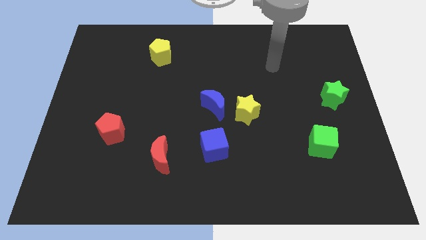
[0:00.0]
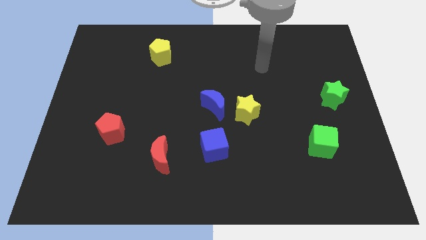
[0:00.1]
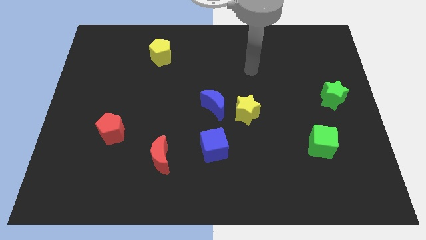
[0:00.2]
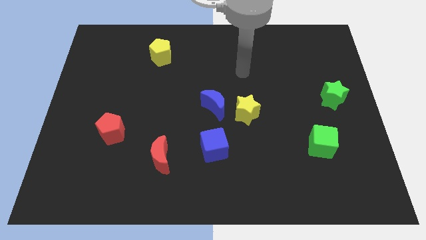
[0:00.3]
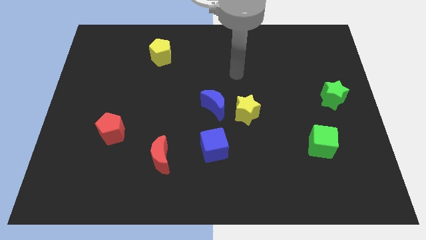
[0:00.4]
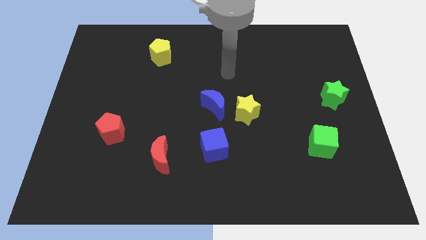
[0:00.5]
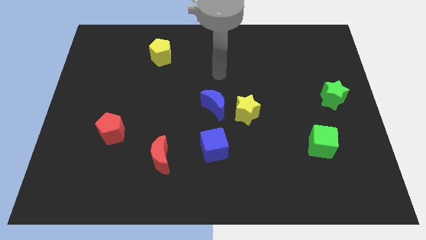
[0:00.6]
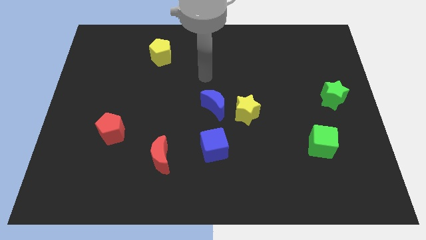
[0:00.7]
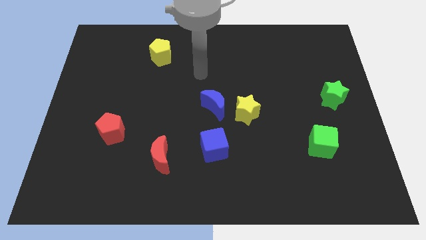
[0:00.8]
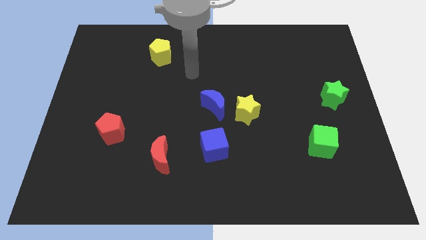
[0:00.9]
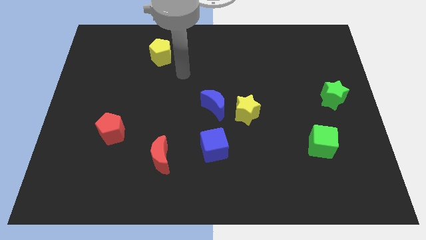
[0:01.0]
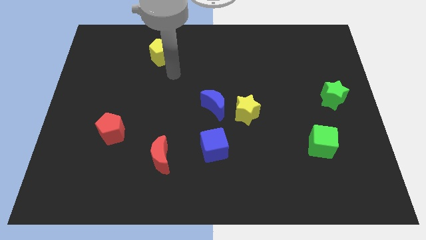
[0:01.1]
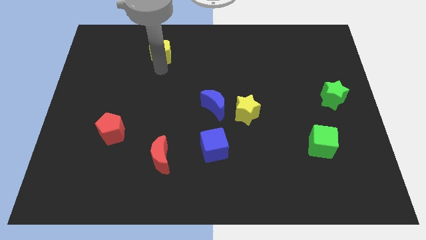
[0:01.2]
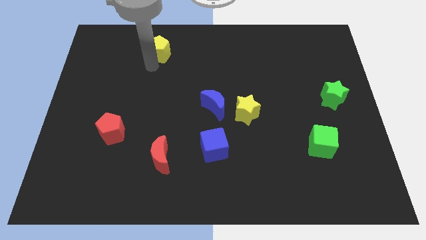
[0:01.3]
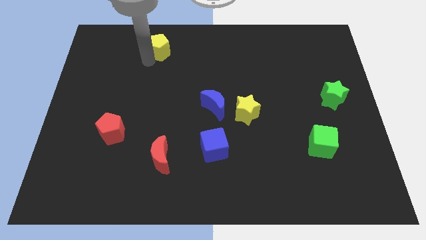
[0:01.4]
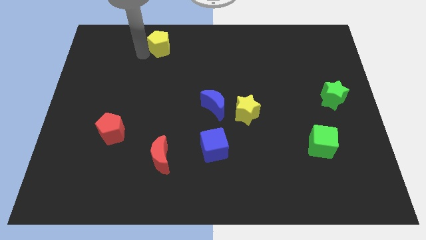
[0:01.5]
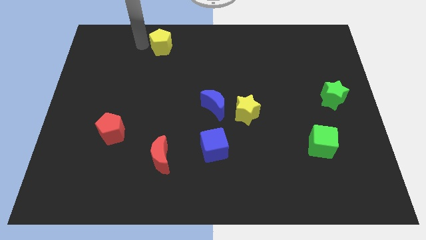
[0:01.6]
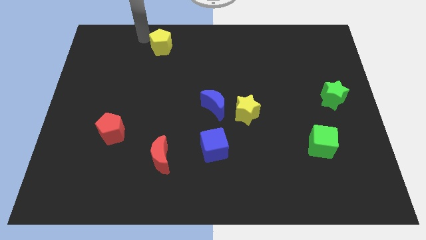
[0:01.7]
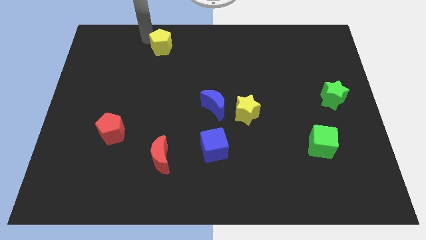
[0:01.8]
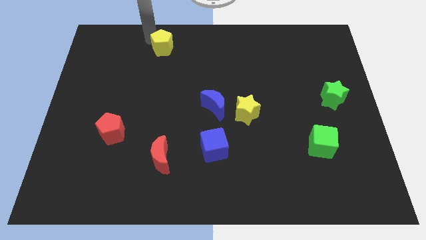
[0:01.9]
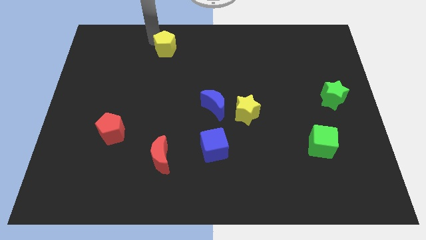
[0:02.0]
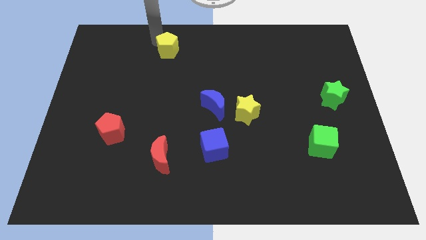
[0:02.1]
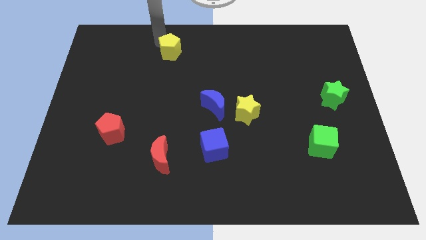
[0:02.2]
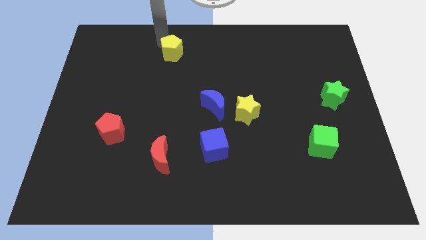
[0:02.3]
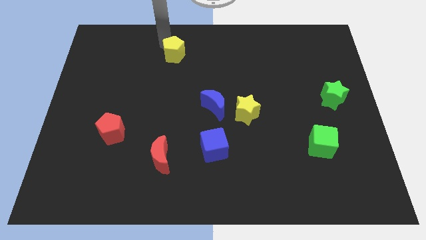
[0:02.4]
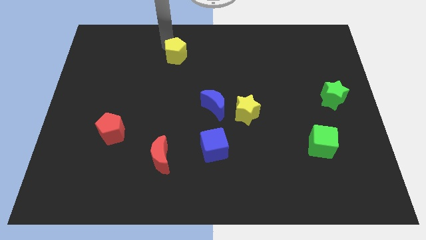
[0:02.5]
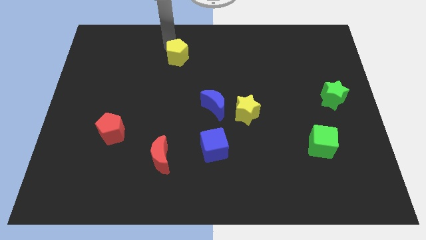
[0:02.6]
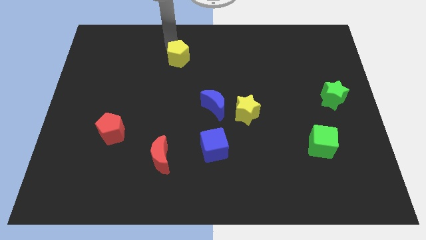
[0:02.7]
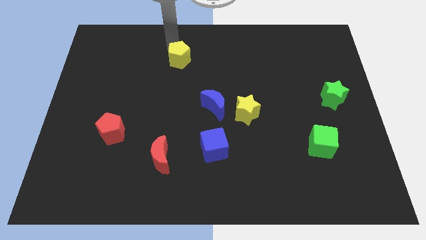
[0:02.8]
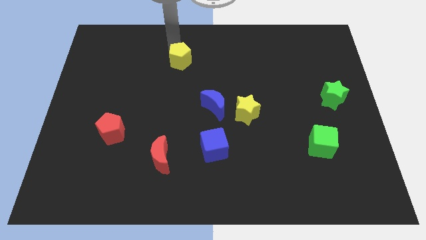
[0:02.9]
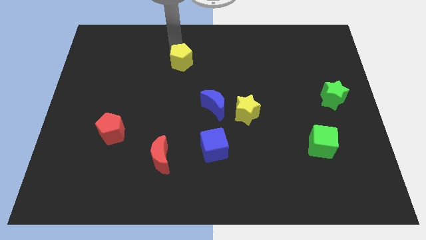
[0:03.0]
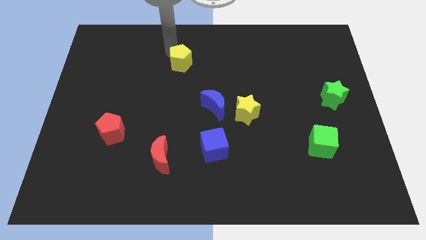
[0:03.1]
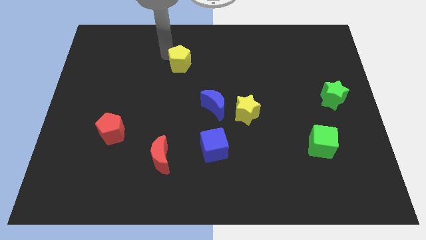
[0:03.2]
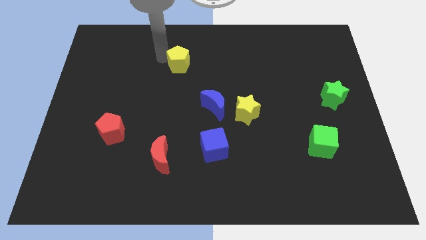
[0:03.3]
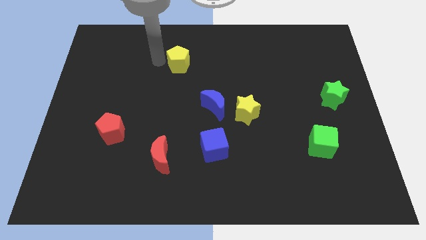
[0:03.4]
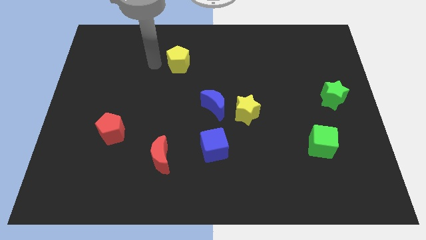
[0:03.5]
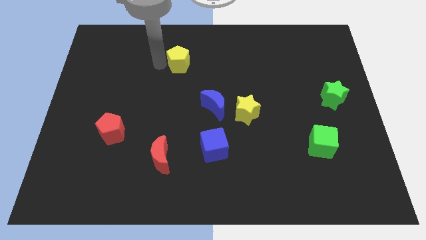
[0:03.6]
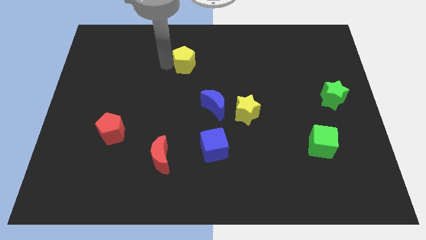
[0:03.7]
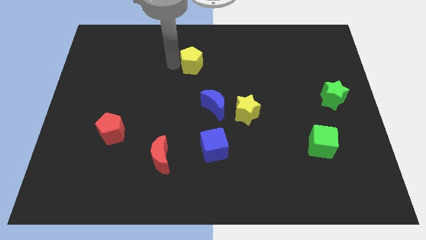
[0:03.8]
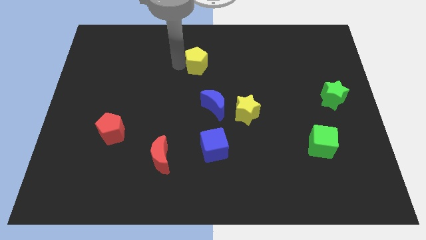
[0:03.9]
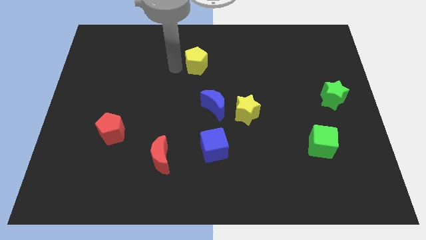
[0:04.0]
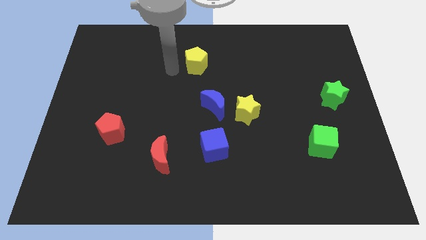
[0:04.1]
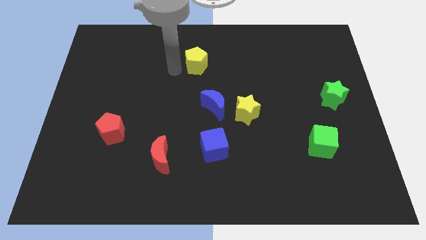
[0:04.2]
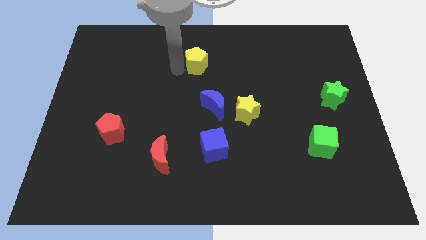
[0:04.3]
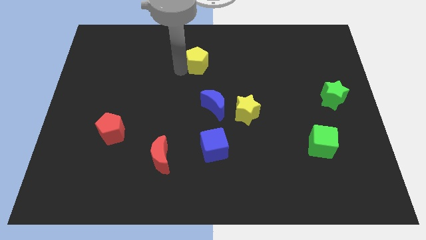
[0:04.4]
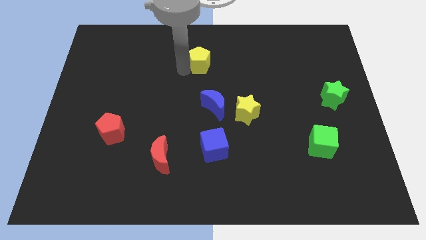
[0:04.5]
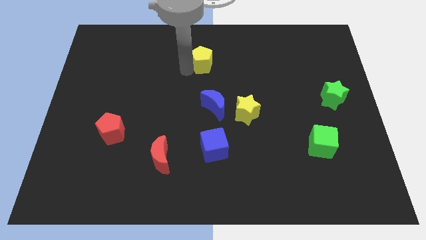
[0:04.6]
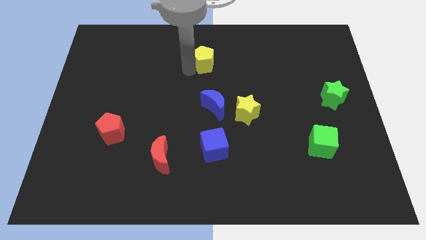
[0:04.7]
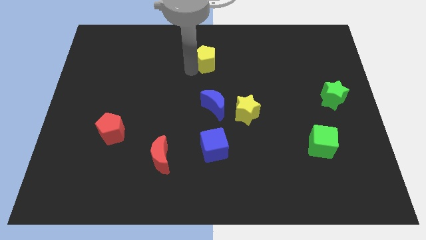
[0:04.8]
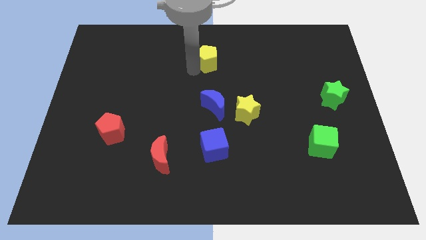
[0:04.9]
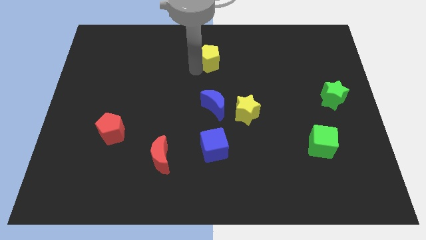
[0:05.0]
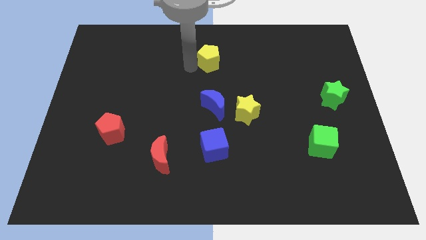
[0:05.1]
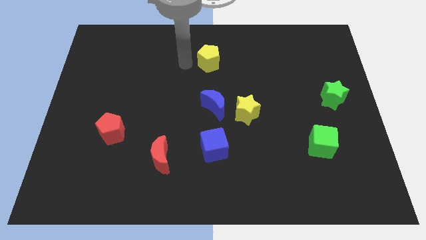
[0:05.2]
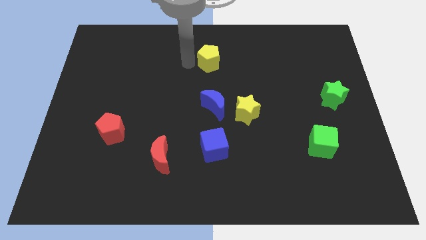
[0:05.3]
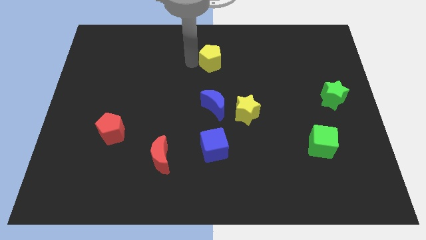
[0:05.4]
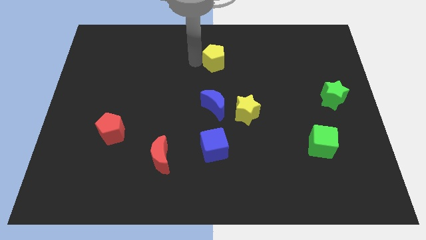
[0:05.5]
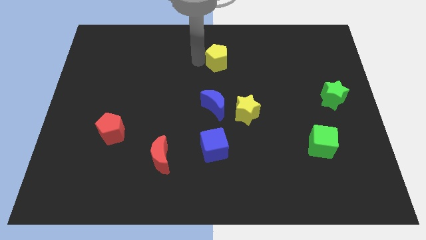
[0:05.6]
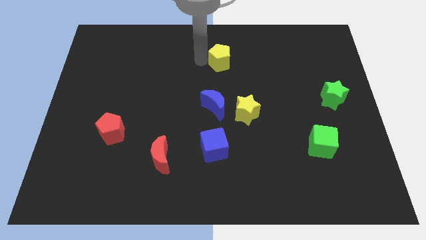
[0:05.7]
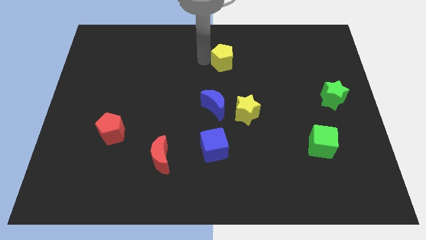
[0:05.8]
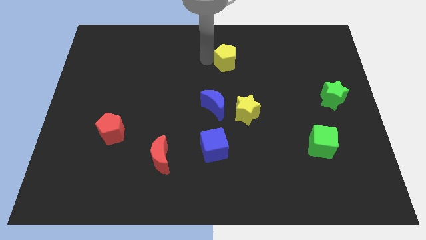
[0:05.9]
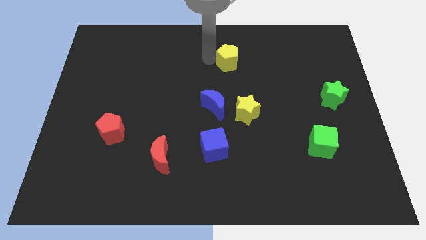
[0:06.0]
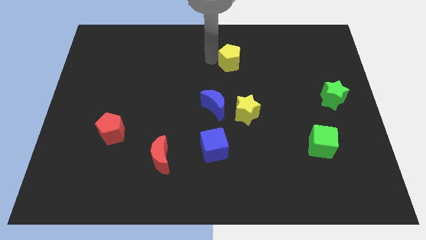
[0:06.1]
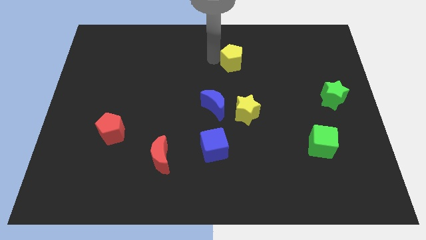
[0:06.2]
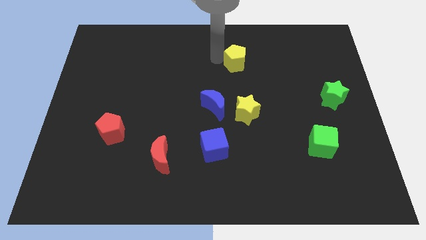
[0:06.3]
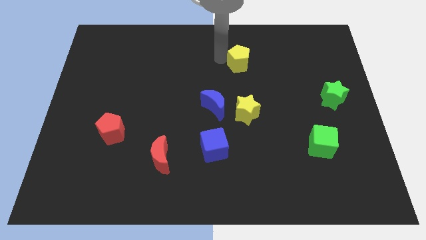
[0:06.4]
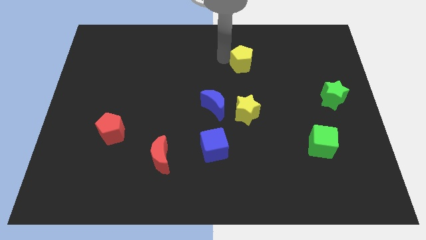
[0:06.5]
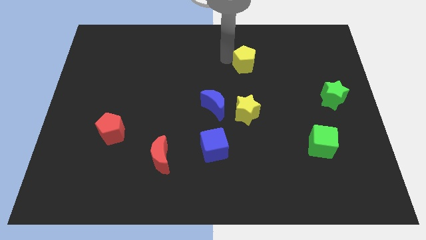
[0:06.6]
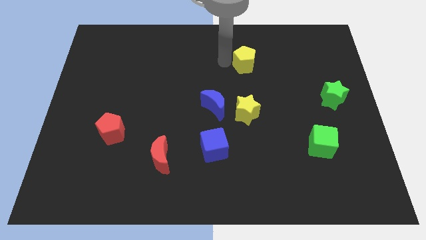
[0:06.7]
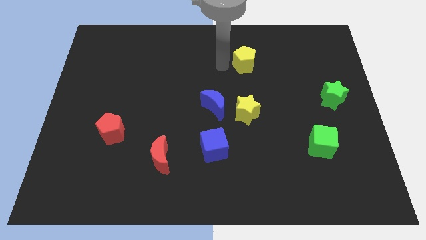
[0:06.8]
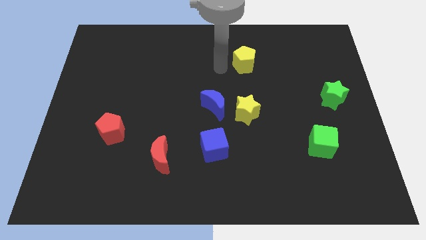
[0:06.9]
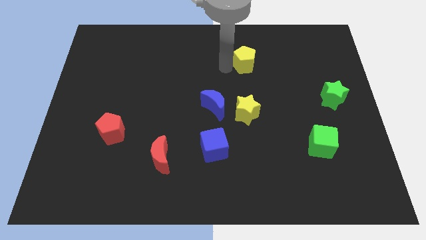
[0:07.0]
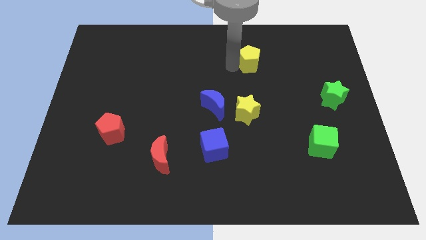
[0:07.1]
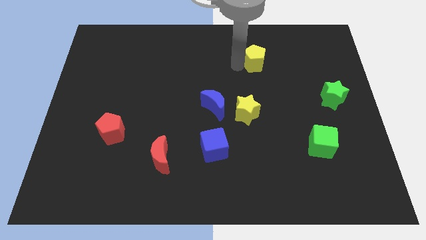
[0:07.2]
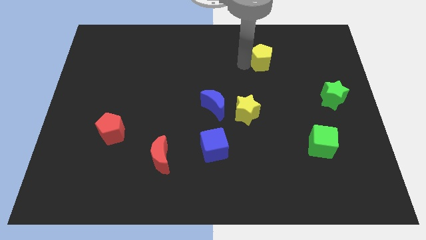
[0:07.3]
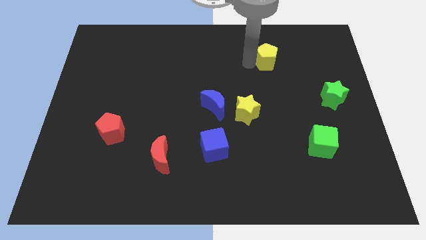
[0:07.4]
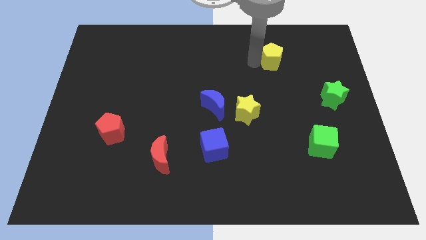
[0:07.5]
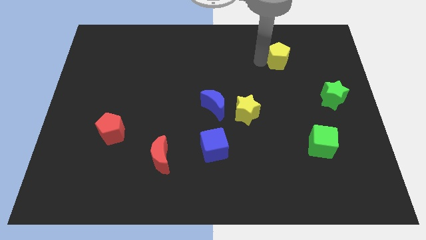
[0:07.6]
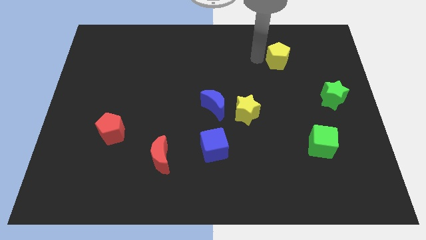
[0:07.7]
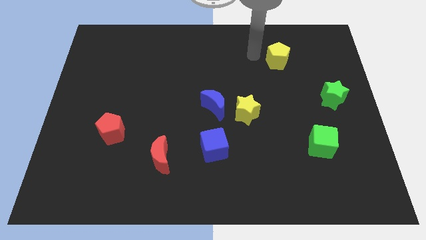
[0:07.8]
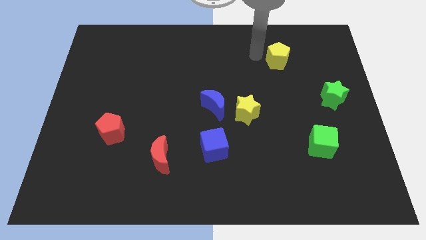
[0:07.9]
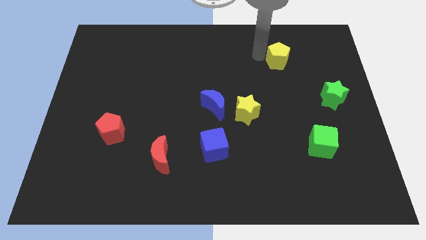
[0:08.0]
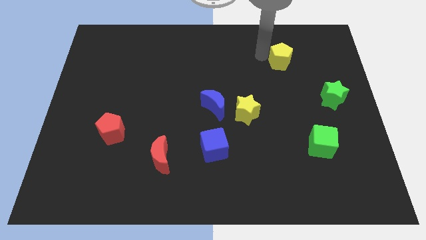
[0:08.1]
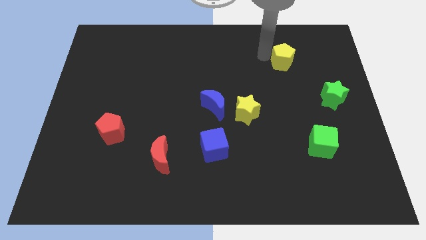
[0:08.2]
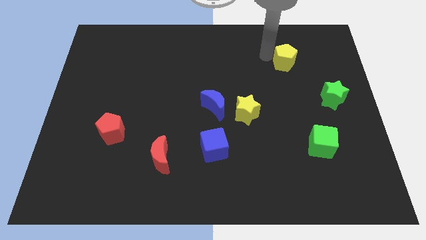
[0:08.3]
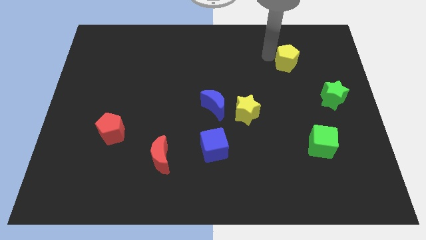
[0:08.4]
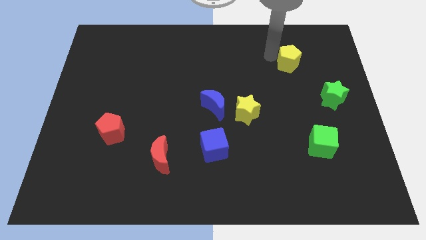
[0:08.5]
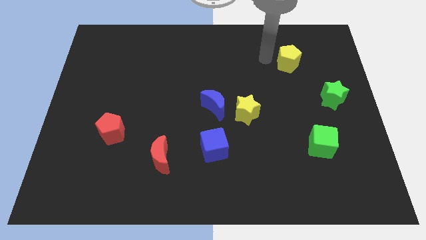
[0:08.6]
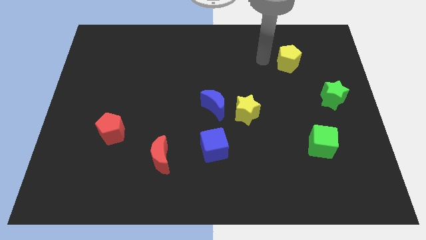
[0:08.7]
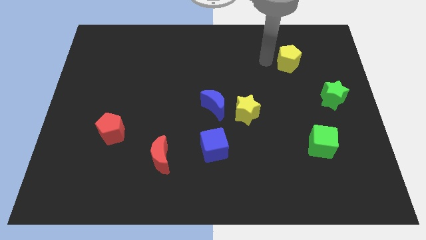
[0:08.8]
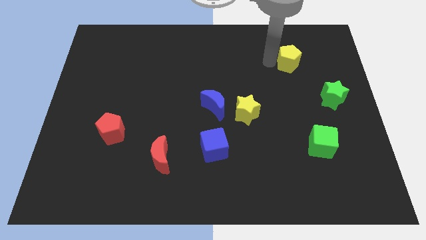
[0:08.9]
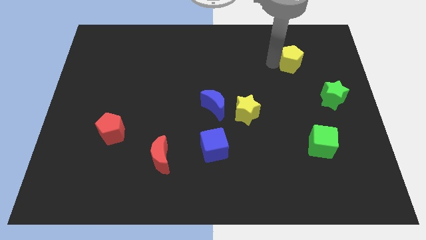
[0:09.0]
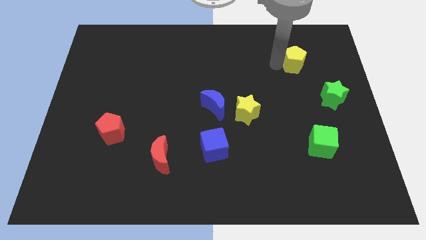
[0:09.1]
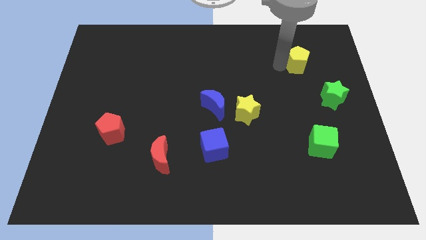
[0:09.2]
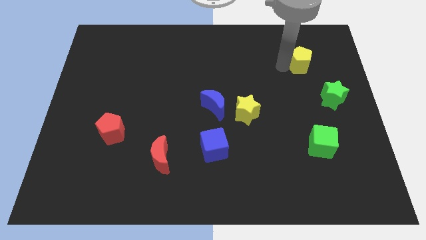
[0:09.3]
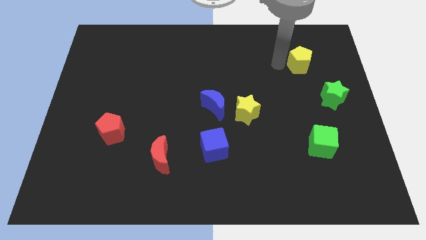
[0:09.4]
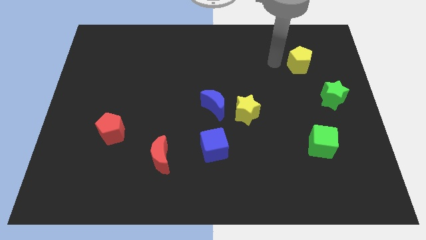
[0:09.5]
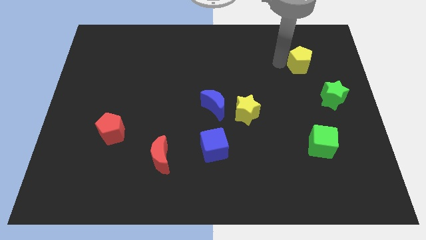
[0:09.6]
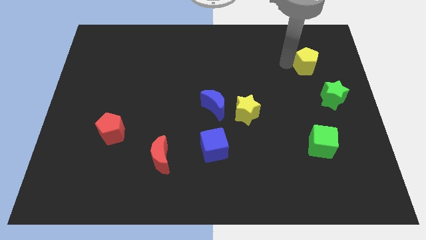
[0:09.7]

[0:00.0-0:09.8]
push the yellow pentagon to the top side of the green star
